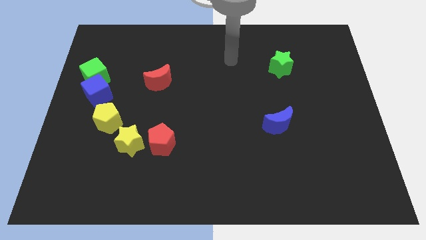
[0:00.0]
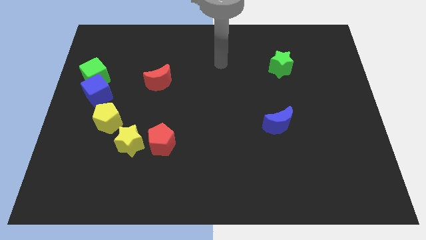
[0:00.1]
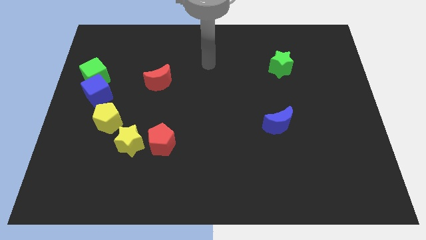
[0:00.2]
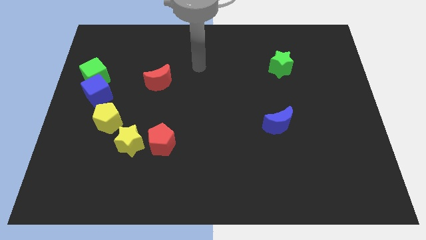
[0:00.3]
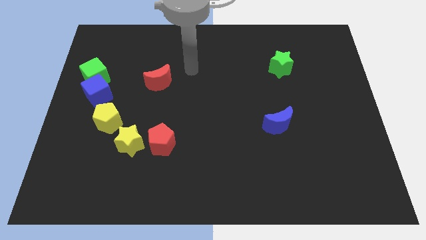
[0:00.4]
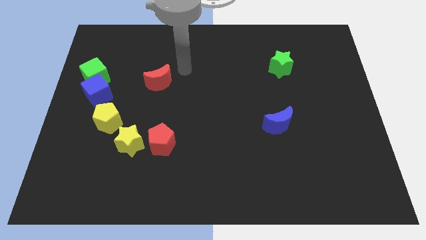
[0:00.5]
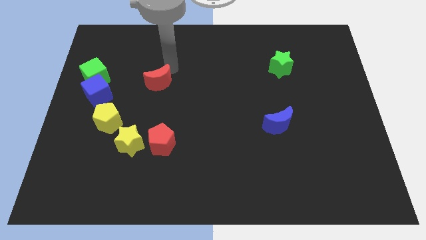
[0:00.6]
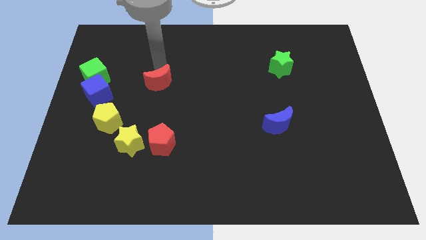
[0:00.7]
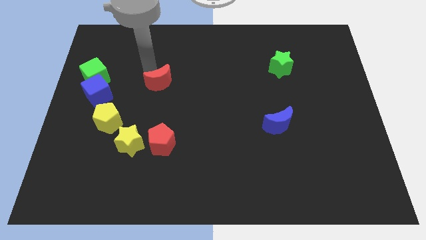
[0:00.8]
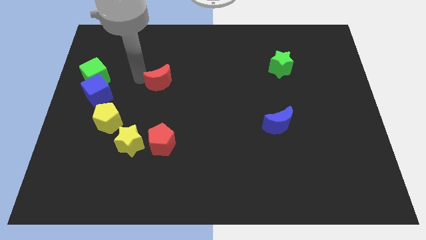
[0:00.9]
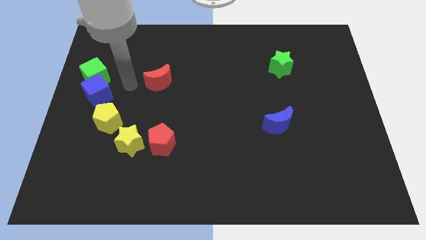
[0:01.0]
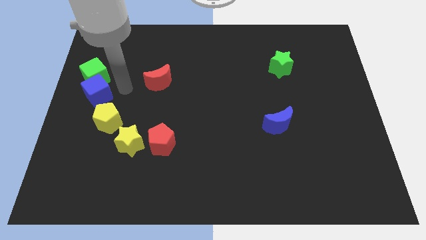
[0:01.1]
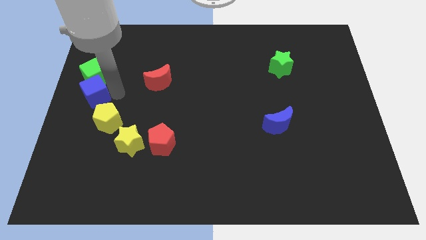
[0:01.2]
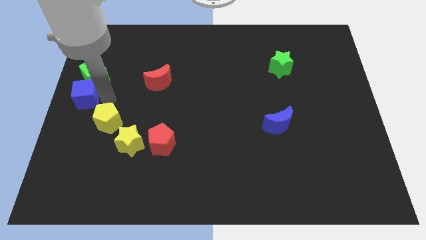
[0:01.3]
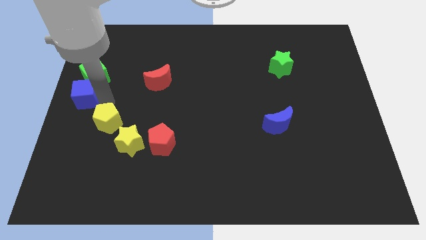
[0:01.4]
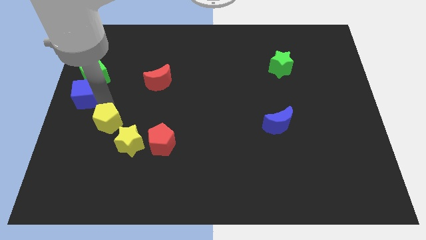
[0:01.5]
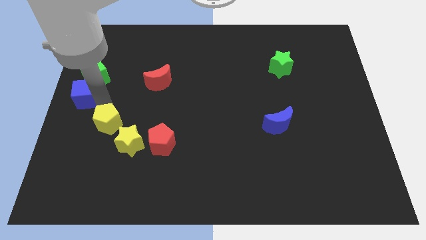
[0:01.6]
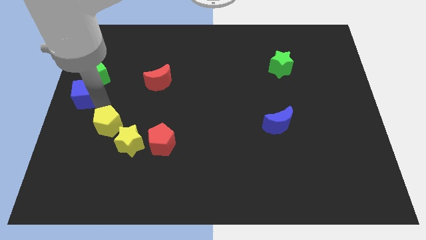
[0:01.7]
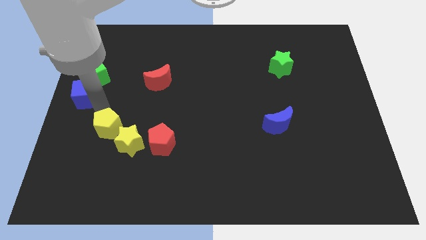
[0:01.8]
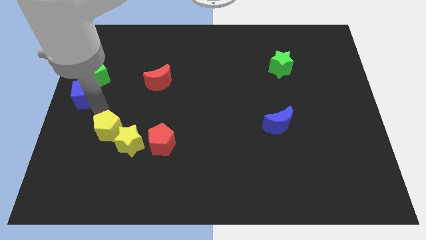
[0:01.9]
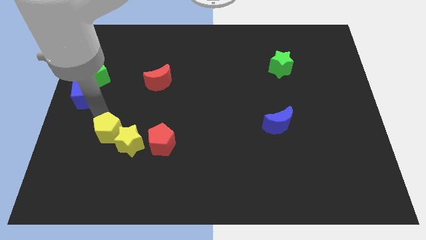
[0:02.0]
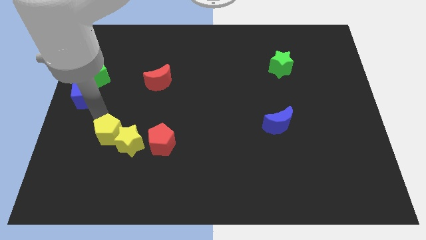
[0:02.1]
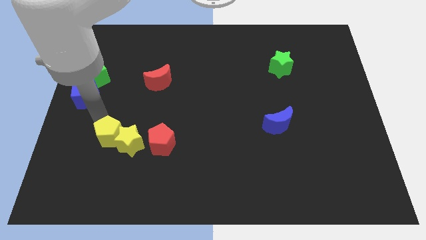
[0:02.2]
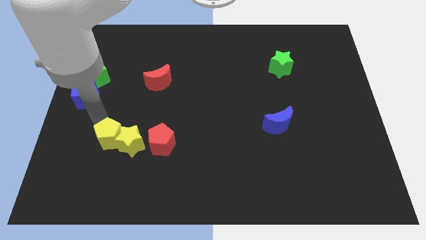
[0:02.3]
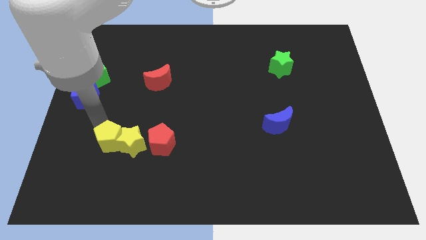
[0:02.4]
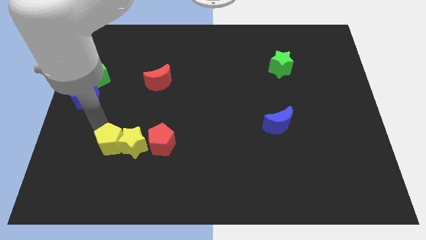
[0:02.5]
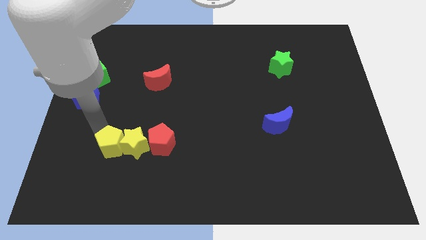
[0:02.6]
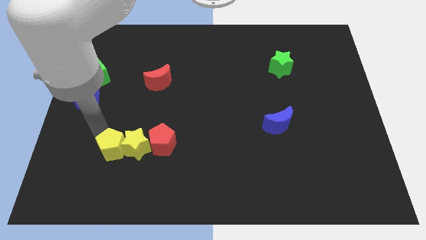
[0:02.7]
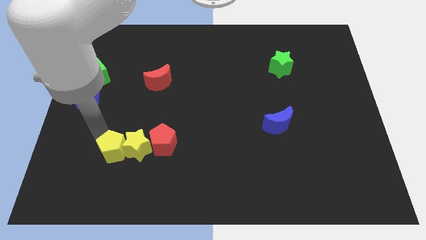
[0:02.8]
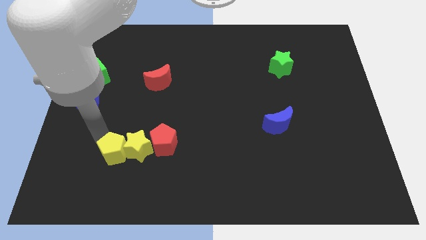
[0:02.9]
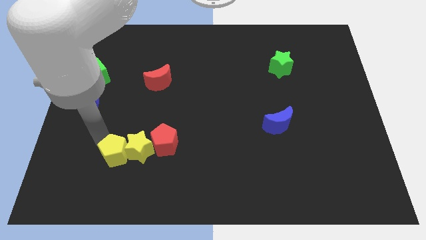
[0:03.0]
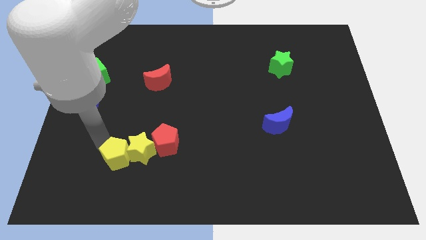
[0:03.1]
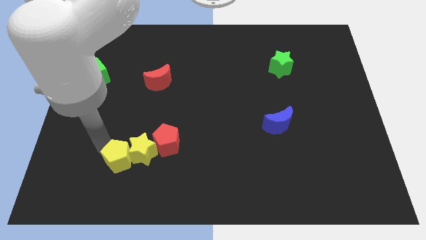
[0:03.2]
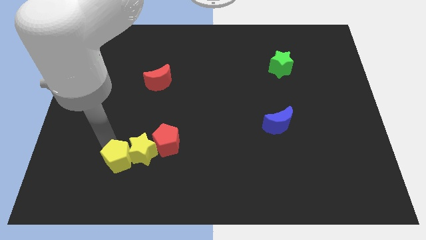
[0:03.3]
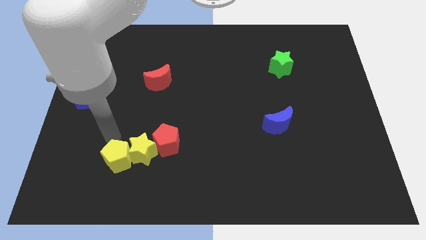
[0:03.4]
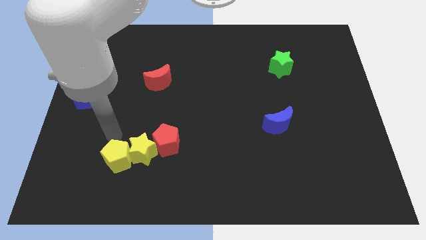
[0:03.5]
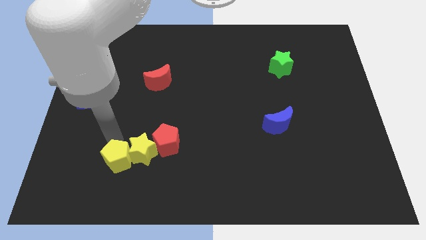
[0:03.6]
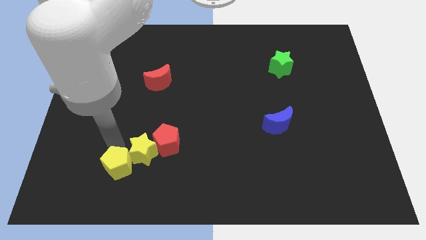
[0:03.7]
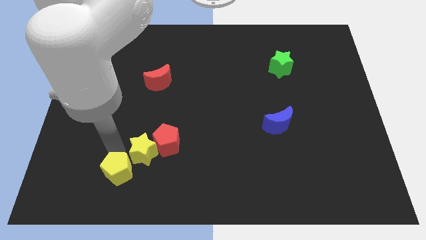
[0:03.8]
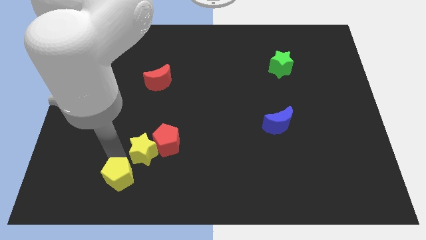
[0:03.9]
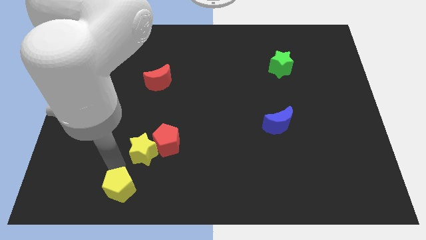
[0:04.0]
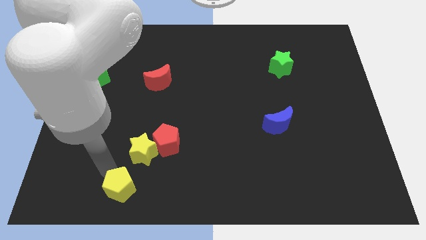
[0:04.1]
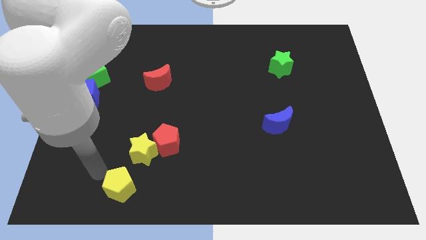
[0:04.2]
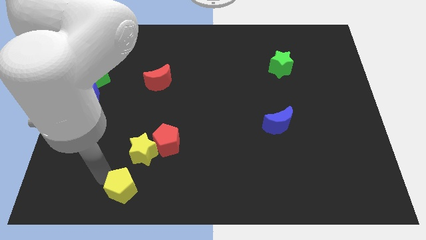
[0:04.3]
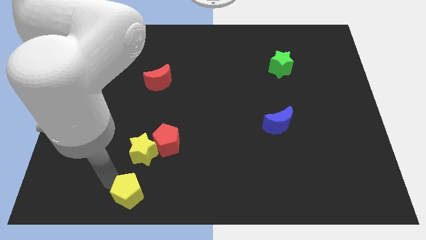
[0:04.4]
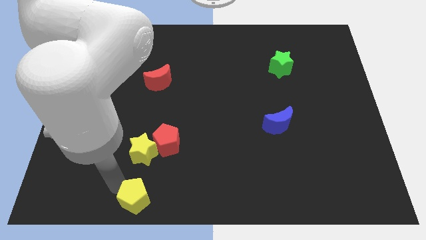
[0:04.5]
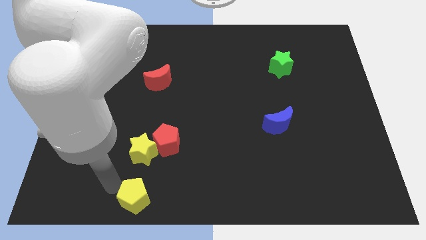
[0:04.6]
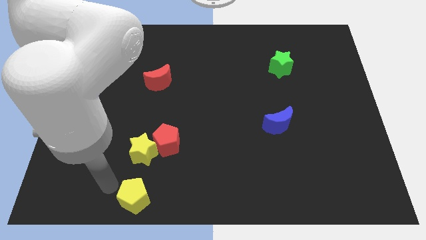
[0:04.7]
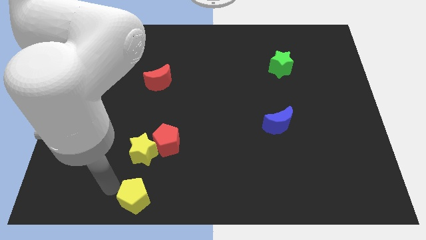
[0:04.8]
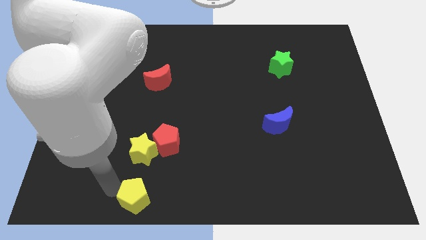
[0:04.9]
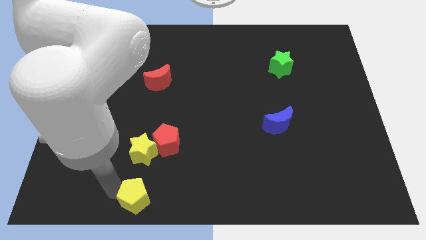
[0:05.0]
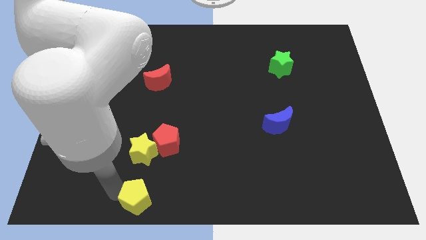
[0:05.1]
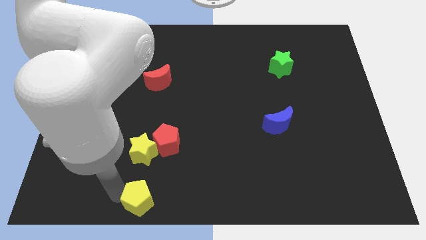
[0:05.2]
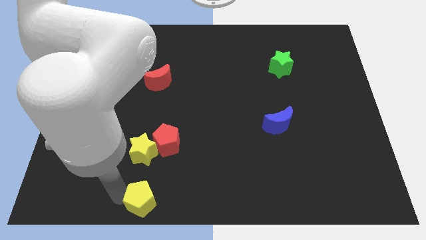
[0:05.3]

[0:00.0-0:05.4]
slide the yellow pentagon to the bottom

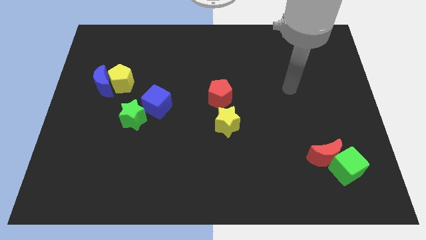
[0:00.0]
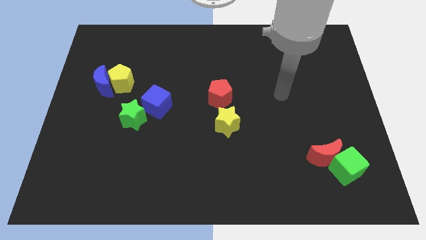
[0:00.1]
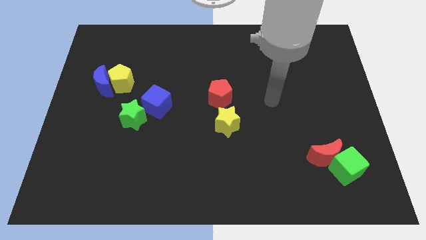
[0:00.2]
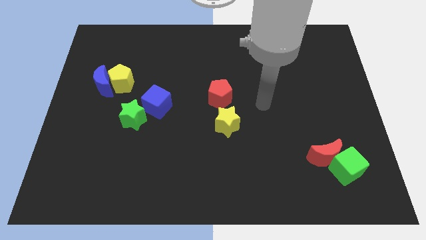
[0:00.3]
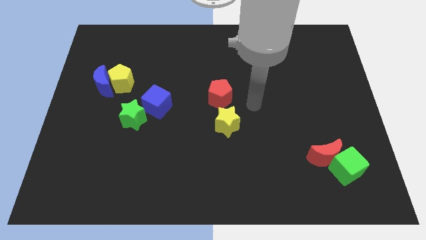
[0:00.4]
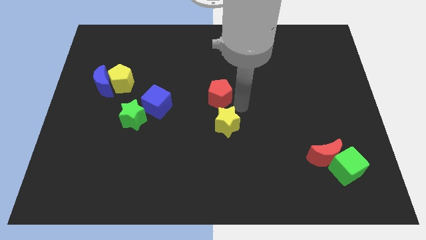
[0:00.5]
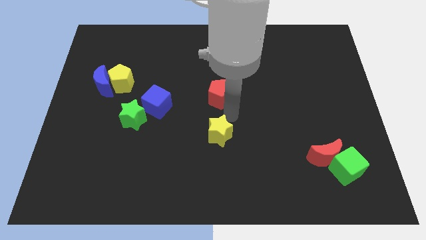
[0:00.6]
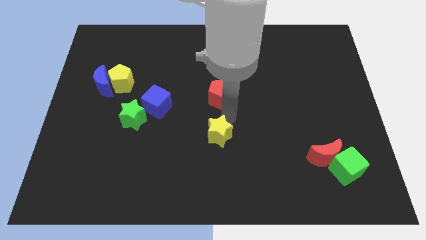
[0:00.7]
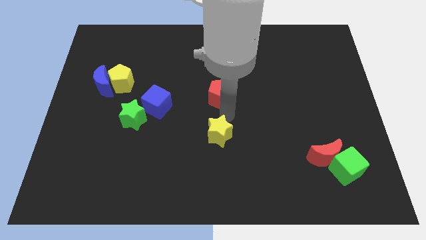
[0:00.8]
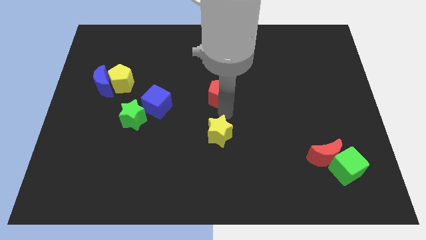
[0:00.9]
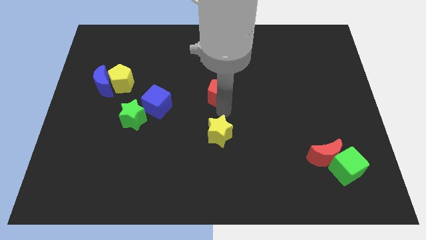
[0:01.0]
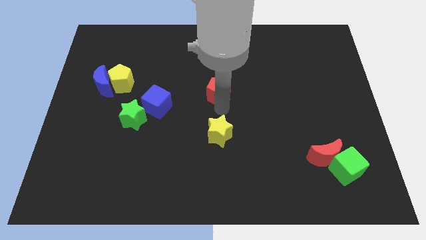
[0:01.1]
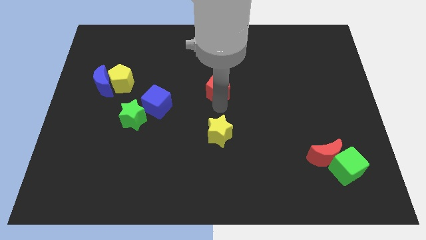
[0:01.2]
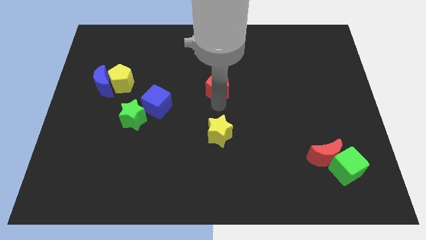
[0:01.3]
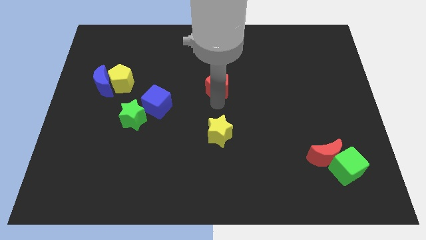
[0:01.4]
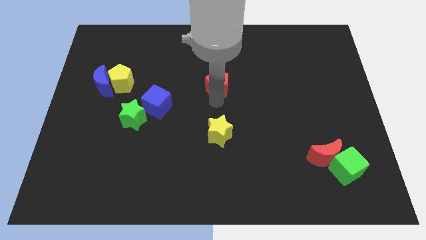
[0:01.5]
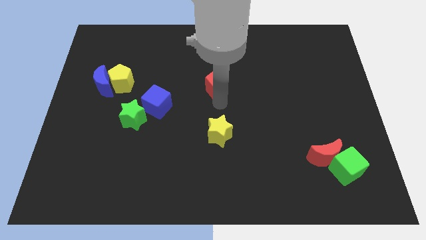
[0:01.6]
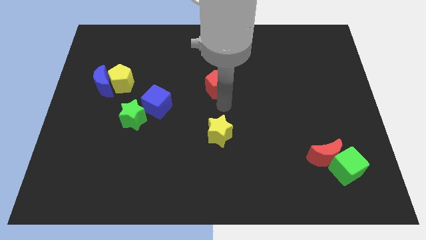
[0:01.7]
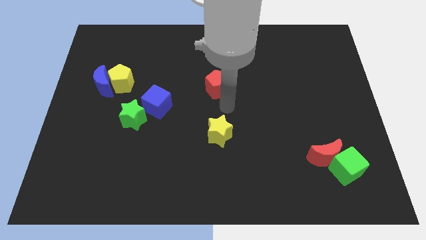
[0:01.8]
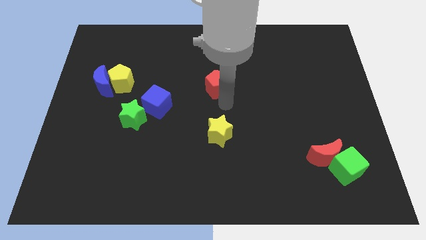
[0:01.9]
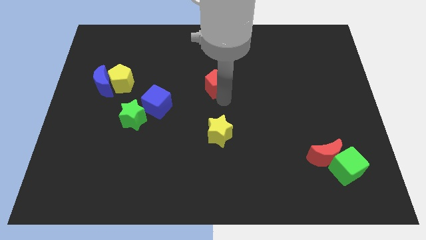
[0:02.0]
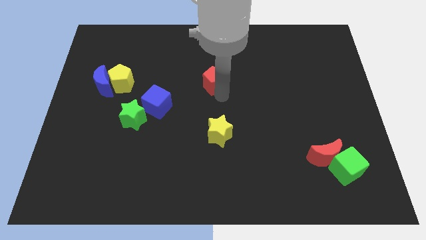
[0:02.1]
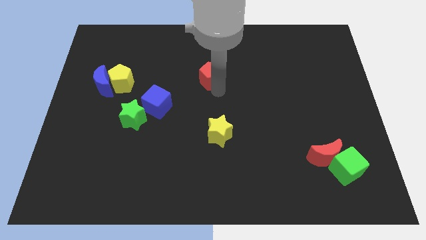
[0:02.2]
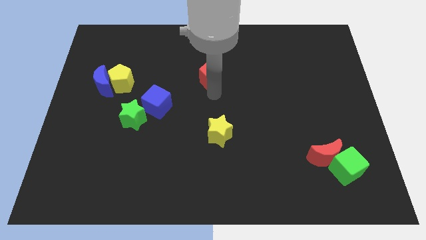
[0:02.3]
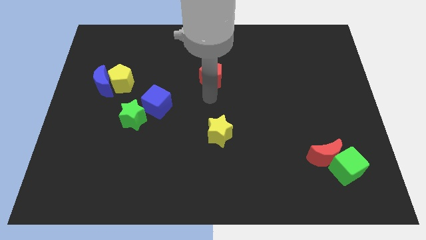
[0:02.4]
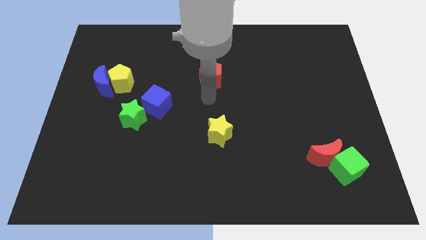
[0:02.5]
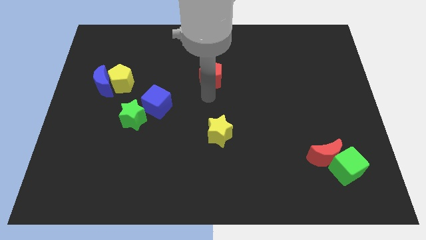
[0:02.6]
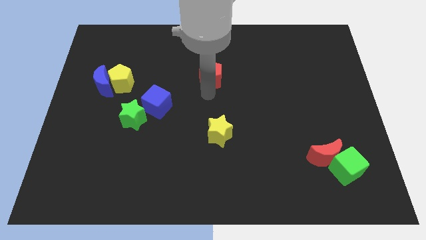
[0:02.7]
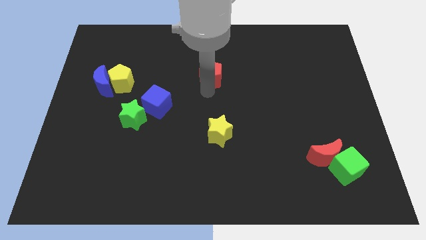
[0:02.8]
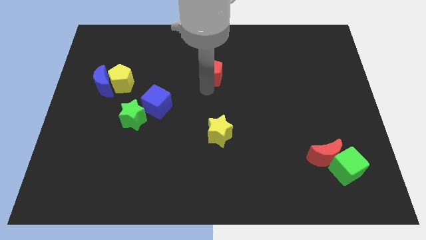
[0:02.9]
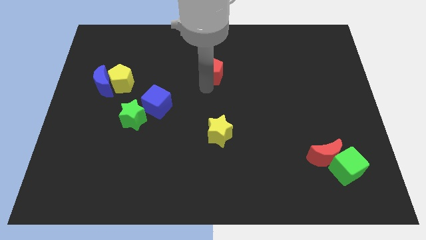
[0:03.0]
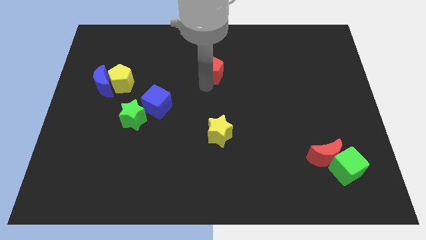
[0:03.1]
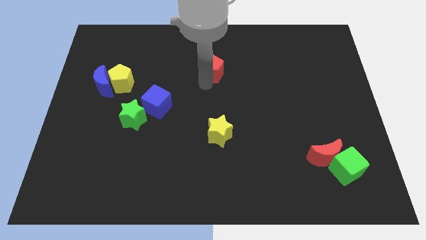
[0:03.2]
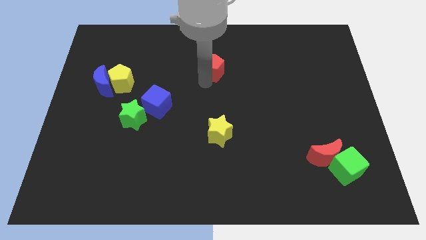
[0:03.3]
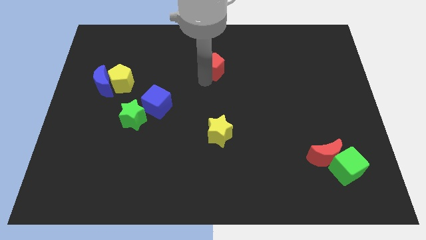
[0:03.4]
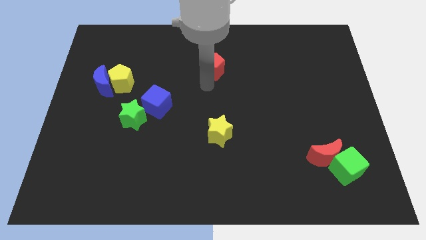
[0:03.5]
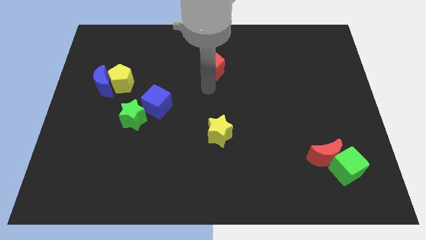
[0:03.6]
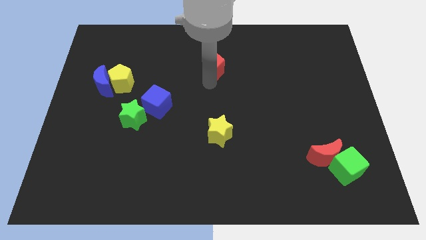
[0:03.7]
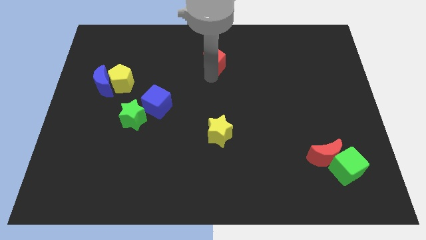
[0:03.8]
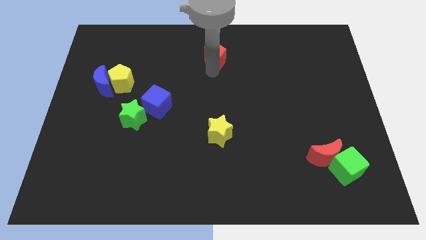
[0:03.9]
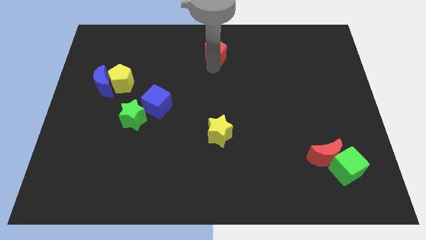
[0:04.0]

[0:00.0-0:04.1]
put the red pentagon to the top side
